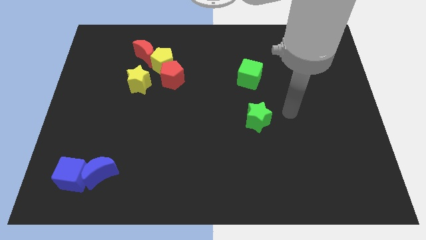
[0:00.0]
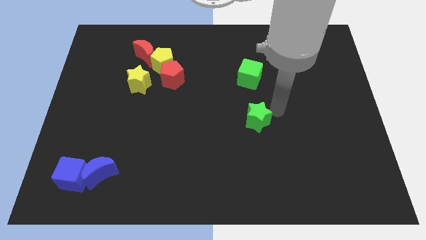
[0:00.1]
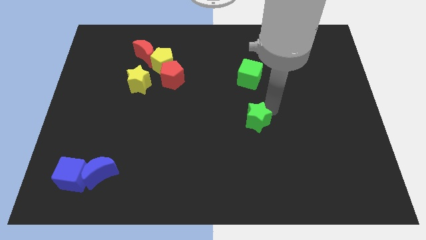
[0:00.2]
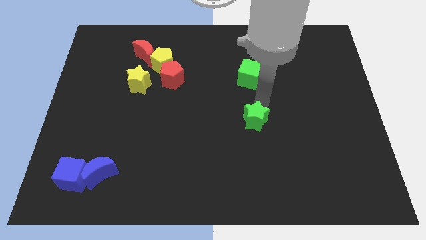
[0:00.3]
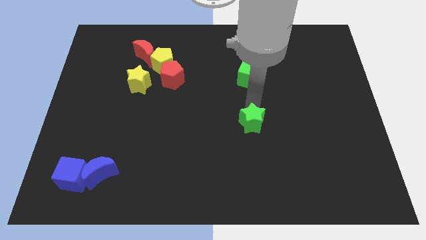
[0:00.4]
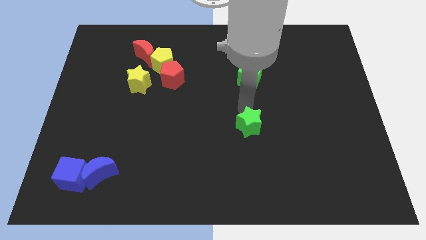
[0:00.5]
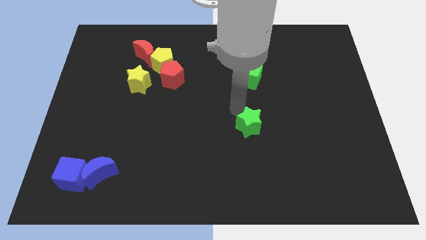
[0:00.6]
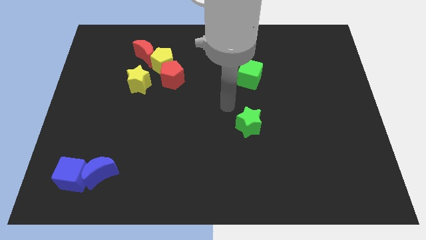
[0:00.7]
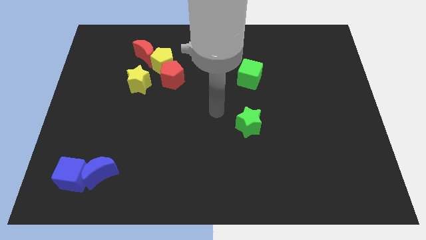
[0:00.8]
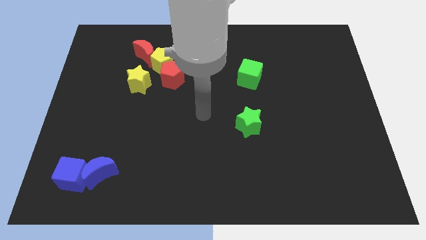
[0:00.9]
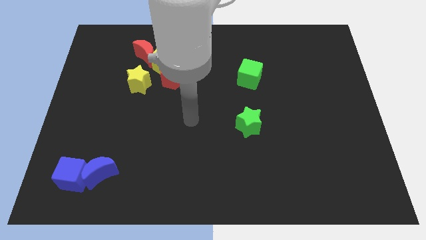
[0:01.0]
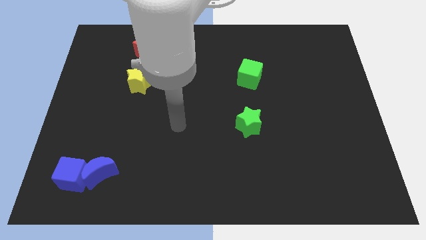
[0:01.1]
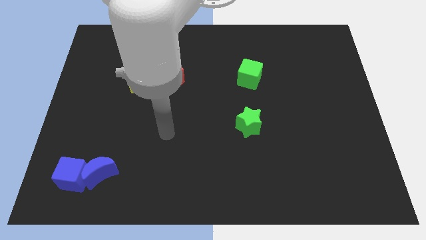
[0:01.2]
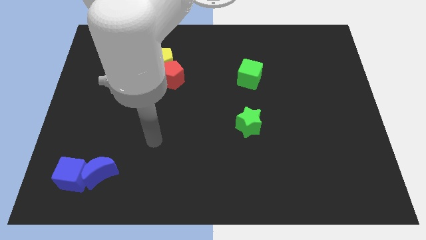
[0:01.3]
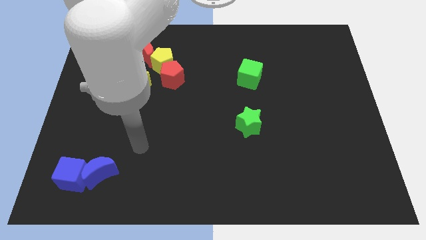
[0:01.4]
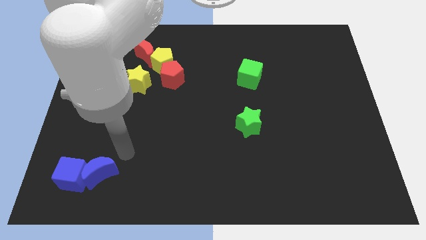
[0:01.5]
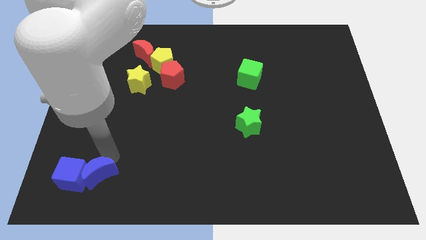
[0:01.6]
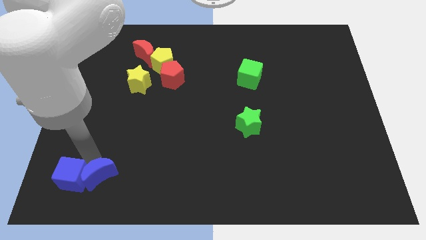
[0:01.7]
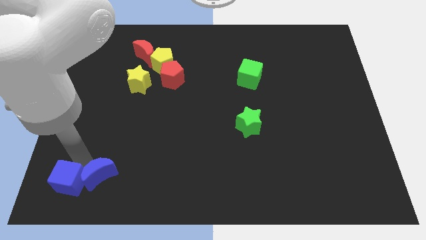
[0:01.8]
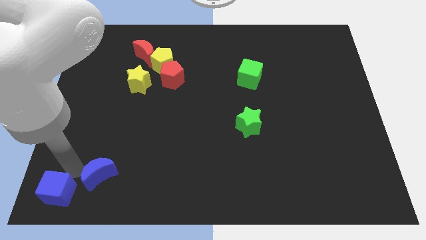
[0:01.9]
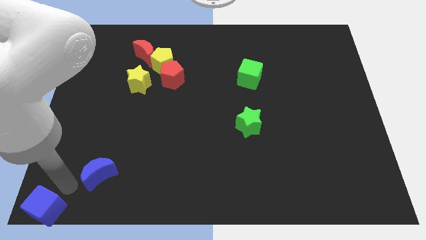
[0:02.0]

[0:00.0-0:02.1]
move the blue moon away from the blue cube

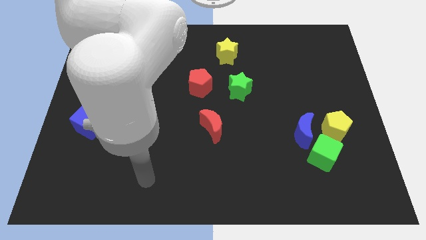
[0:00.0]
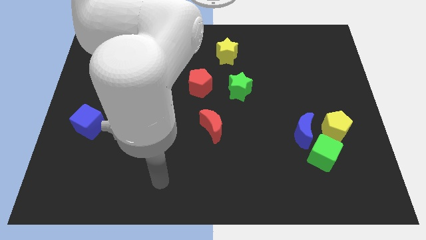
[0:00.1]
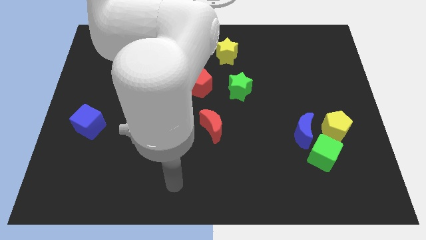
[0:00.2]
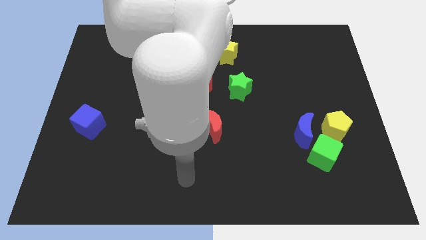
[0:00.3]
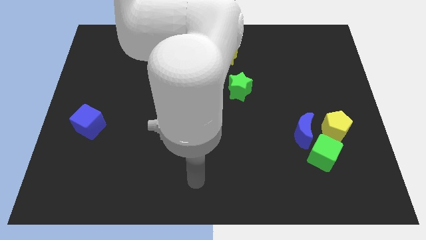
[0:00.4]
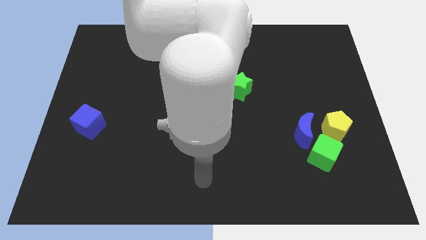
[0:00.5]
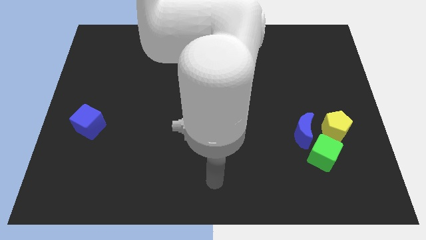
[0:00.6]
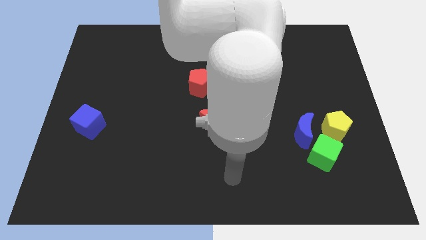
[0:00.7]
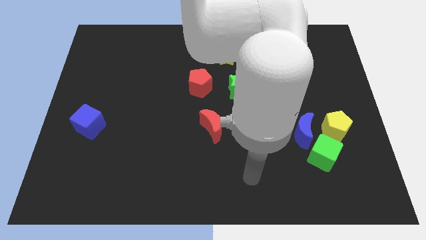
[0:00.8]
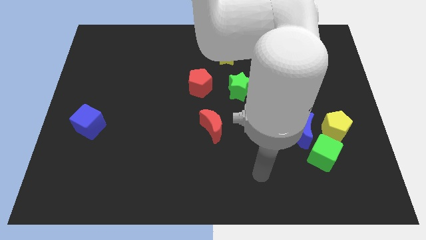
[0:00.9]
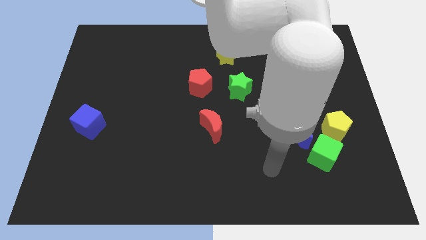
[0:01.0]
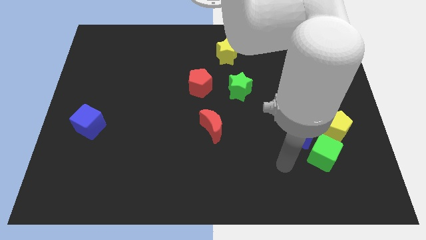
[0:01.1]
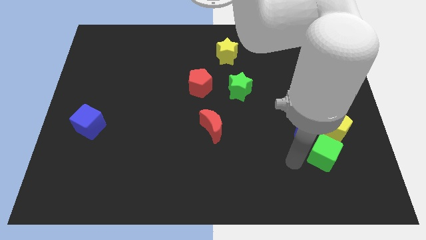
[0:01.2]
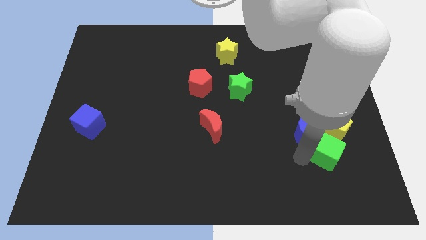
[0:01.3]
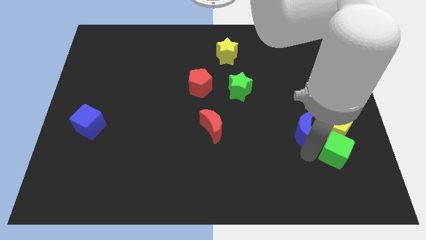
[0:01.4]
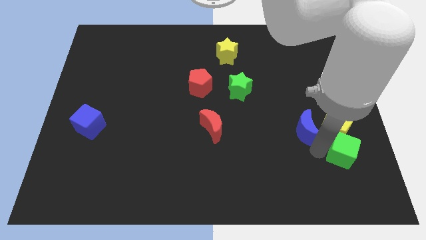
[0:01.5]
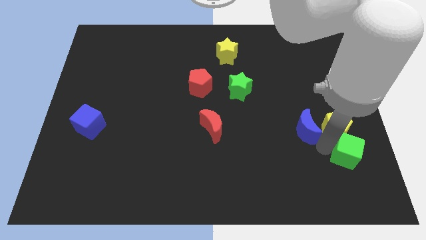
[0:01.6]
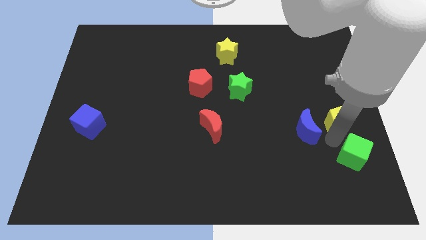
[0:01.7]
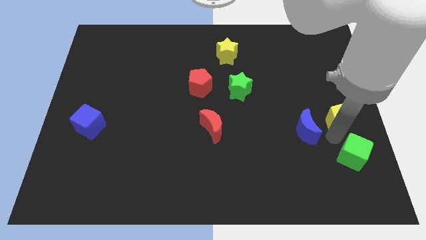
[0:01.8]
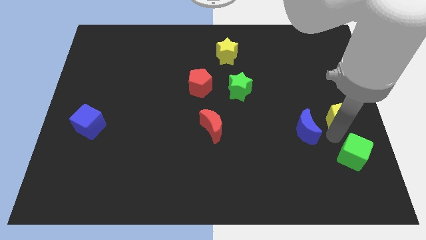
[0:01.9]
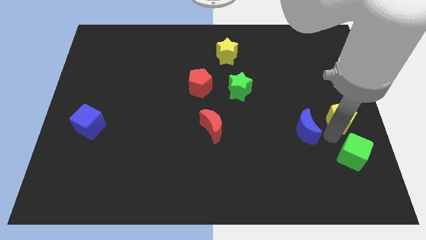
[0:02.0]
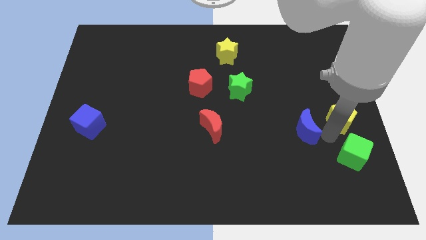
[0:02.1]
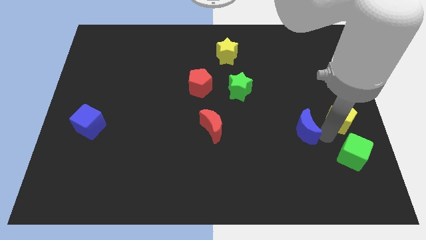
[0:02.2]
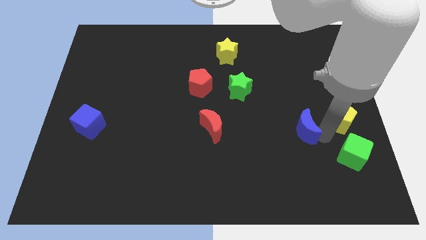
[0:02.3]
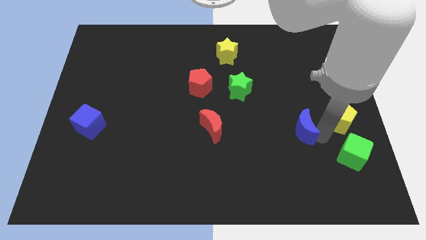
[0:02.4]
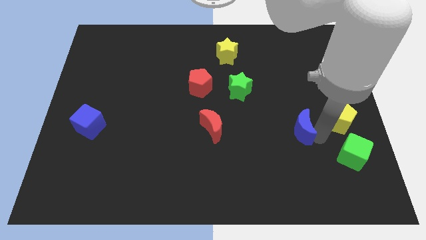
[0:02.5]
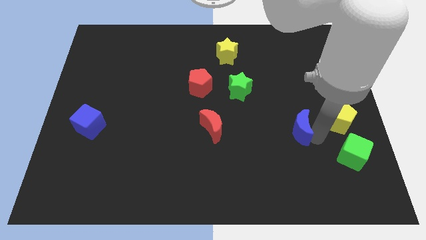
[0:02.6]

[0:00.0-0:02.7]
separate the blue moon from the green cube and yellow pentagon

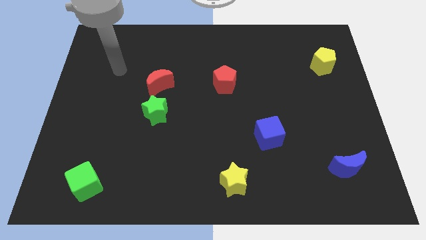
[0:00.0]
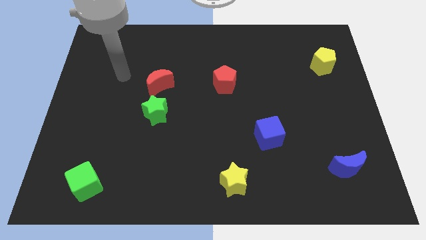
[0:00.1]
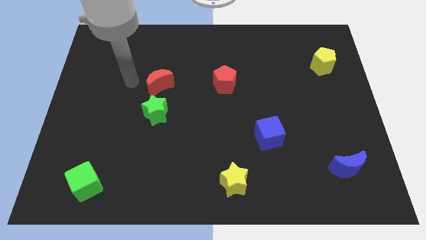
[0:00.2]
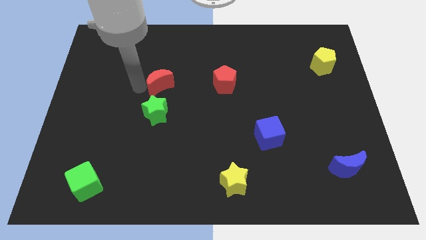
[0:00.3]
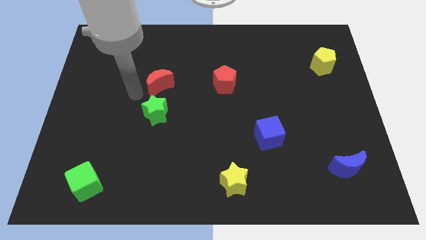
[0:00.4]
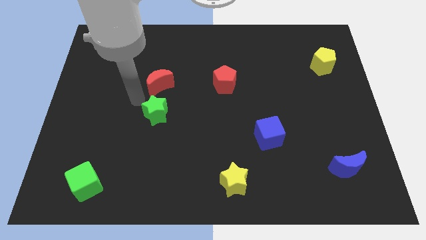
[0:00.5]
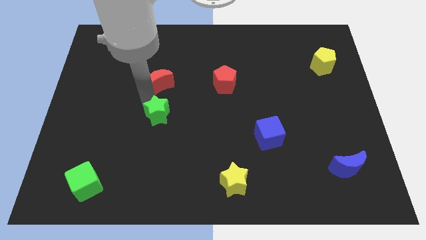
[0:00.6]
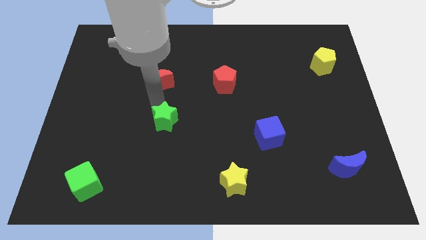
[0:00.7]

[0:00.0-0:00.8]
pull the red moon apart from the green star

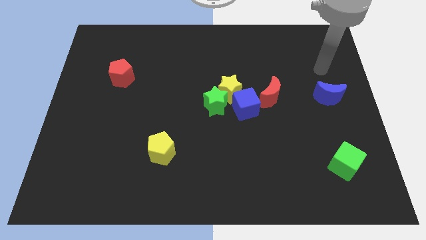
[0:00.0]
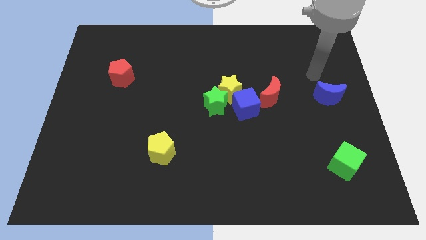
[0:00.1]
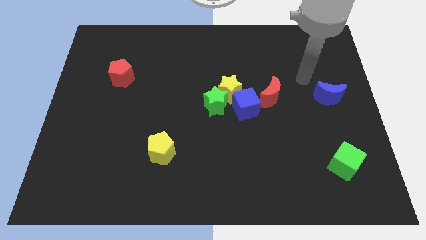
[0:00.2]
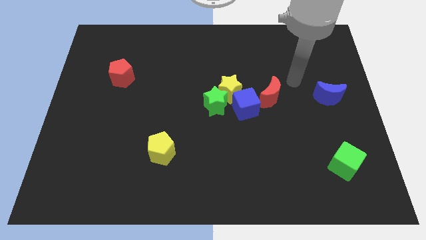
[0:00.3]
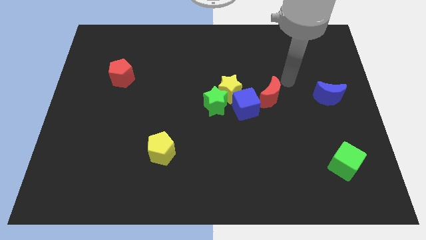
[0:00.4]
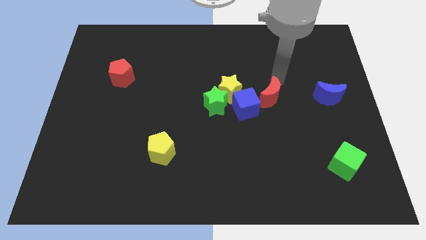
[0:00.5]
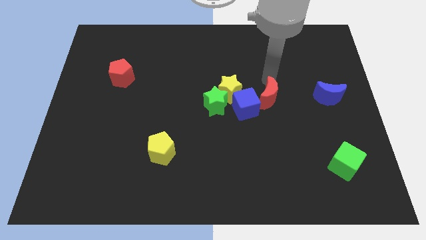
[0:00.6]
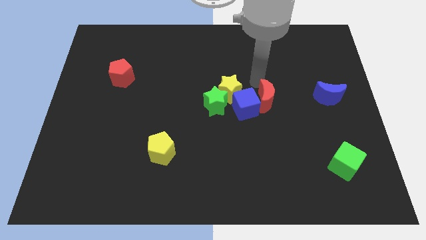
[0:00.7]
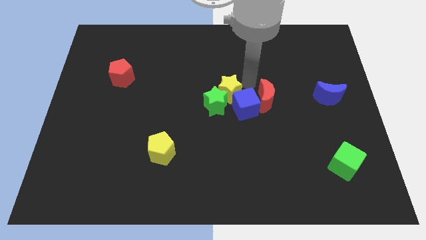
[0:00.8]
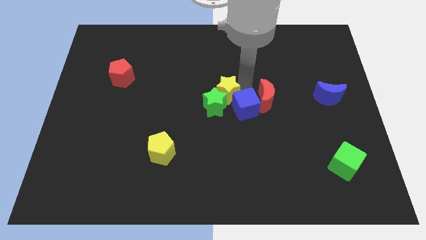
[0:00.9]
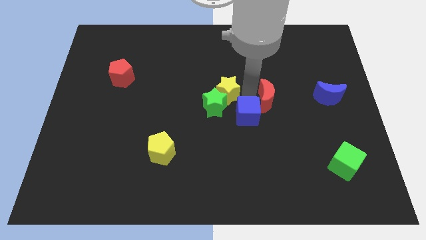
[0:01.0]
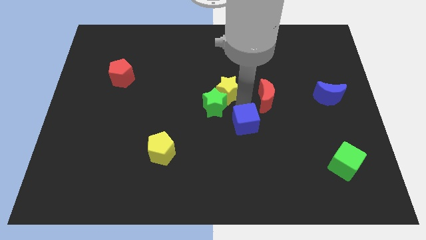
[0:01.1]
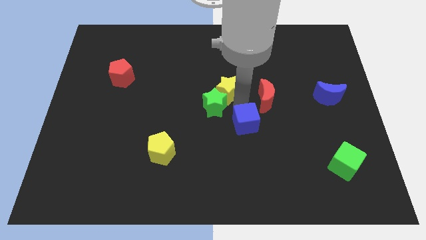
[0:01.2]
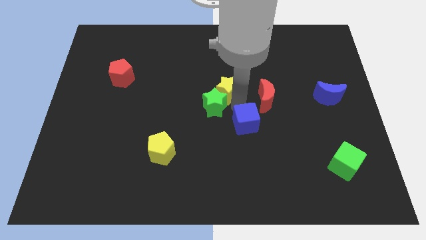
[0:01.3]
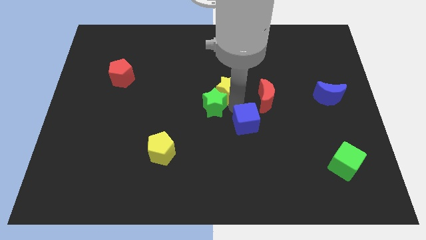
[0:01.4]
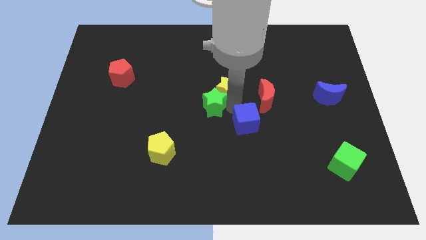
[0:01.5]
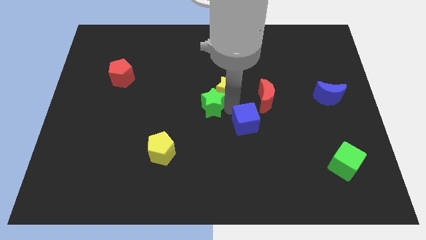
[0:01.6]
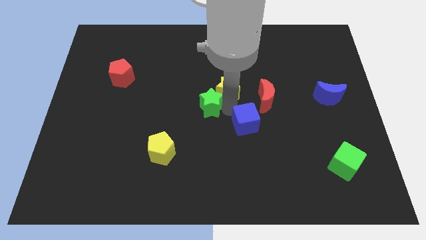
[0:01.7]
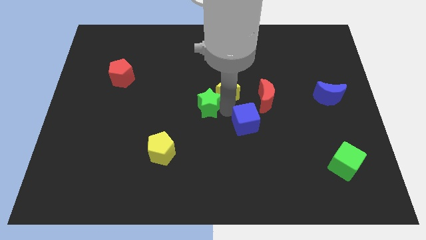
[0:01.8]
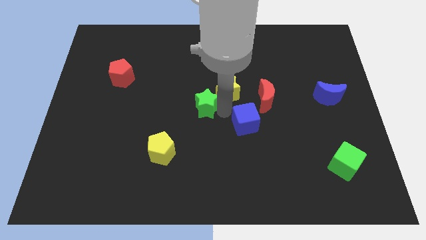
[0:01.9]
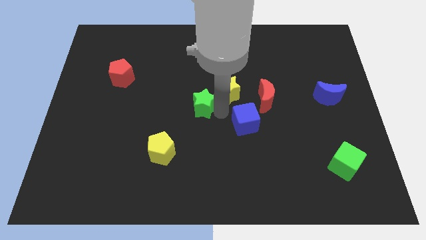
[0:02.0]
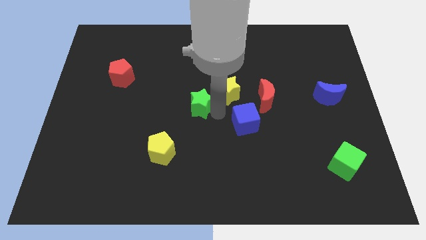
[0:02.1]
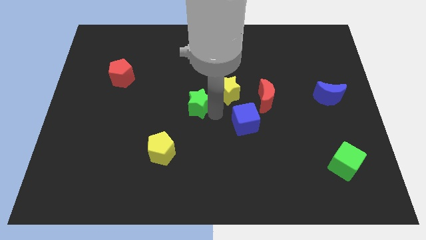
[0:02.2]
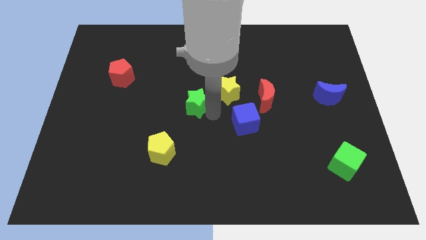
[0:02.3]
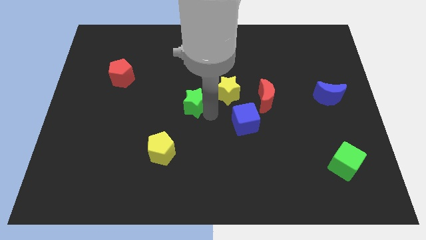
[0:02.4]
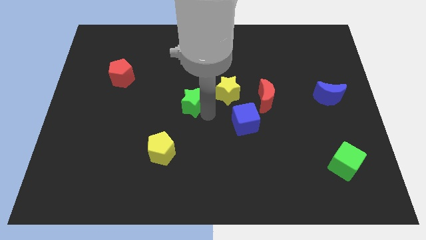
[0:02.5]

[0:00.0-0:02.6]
move the green star away from the yellow star and blue cube

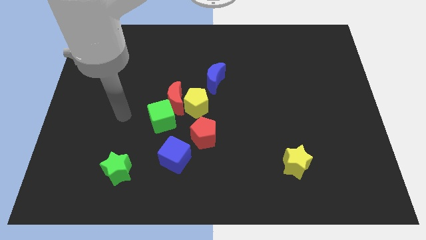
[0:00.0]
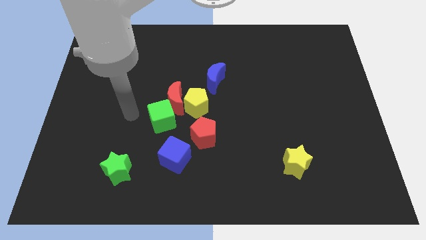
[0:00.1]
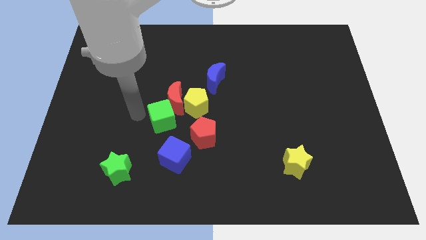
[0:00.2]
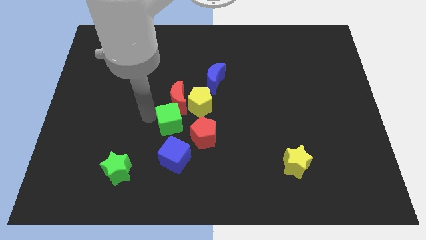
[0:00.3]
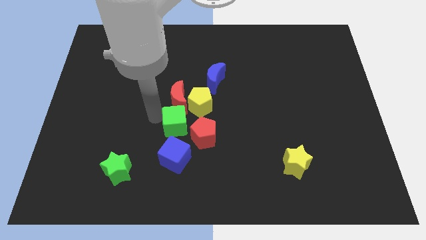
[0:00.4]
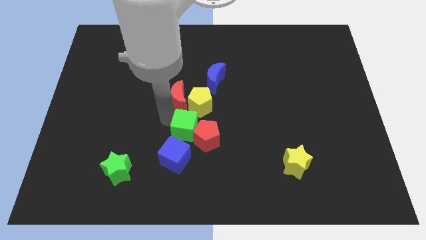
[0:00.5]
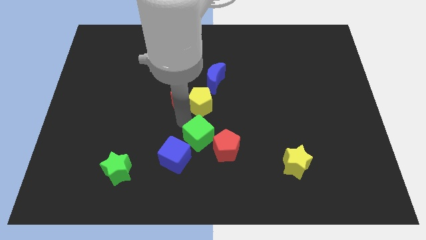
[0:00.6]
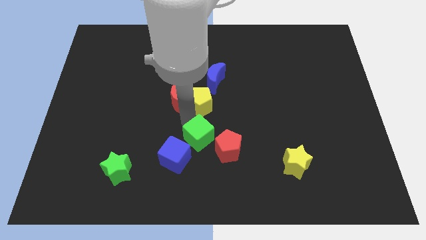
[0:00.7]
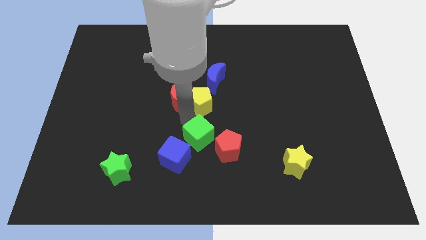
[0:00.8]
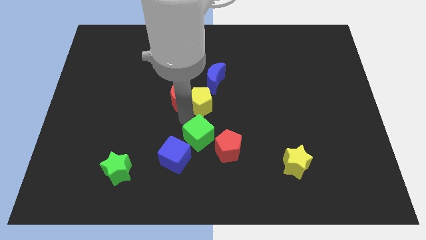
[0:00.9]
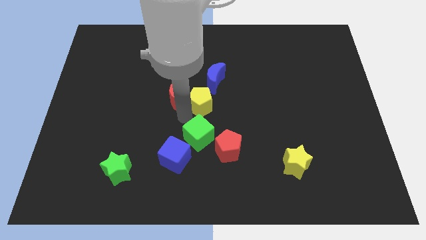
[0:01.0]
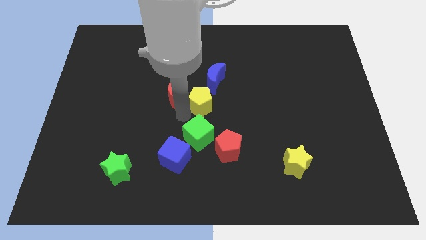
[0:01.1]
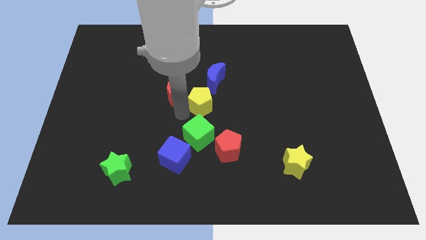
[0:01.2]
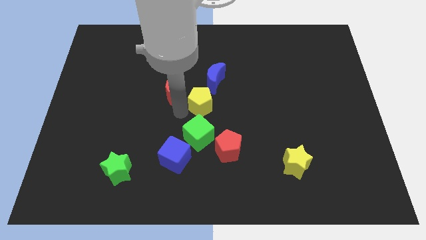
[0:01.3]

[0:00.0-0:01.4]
separate the red moon from the yellow pentagon and green cube
